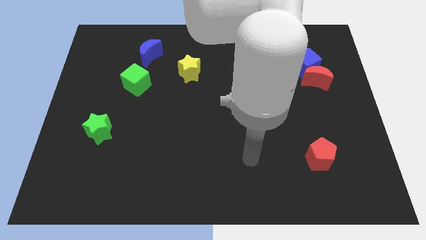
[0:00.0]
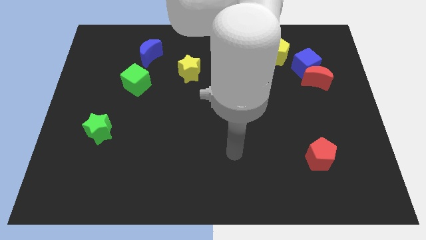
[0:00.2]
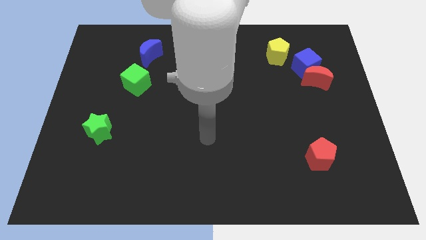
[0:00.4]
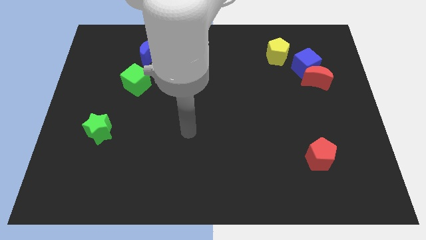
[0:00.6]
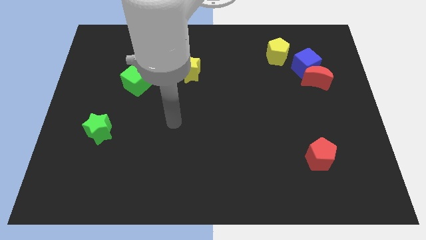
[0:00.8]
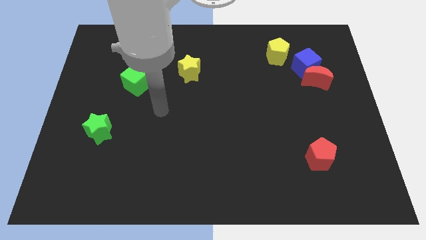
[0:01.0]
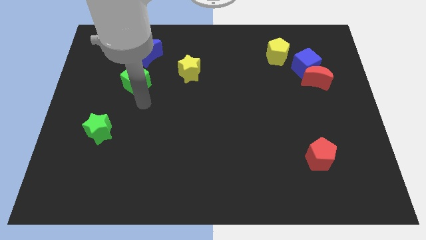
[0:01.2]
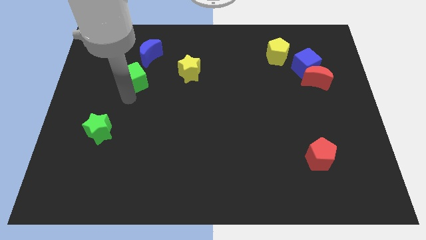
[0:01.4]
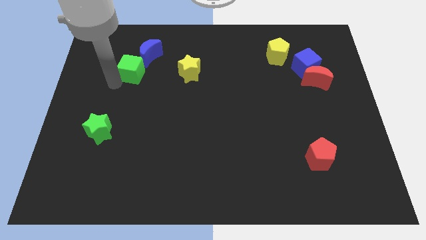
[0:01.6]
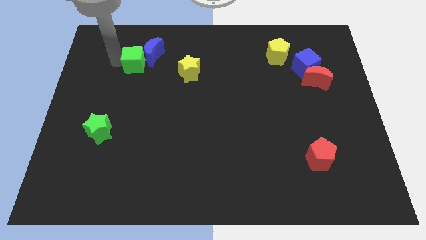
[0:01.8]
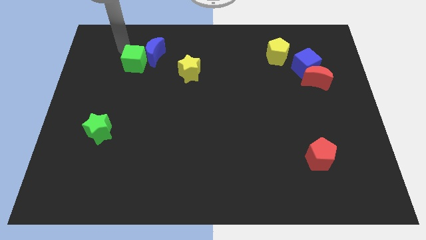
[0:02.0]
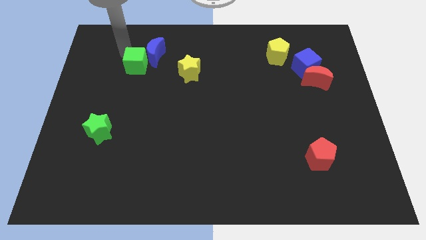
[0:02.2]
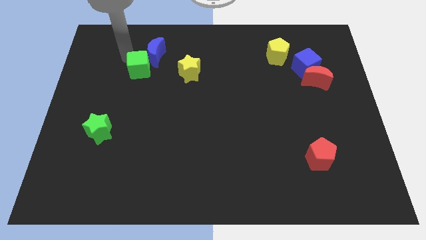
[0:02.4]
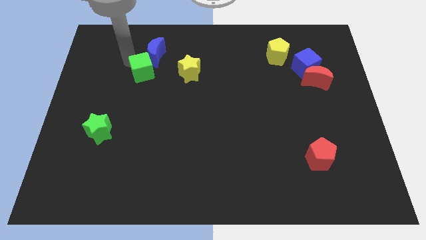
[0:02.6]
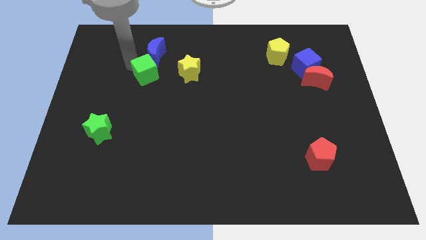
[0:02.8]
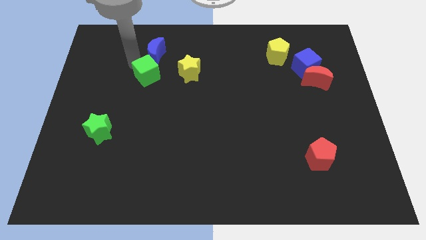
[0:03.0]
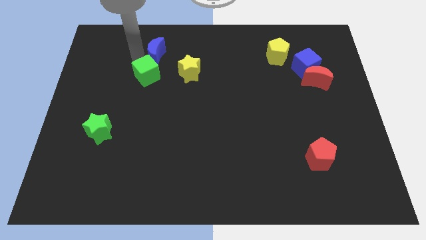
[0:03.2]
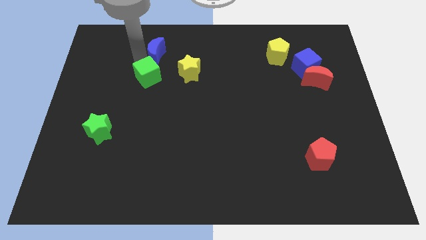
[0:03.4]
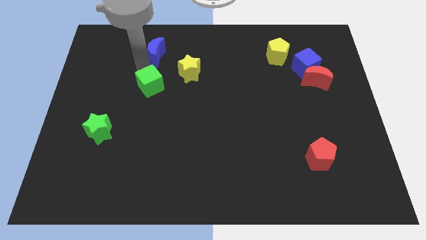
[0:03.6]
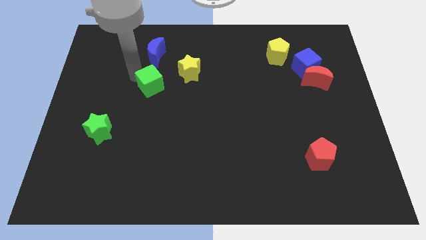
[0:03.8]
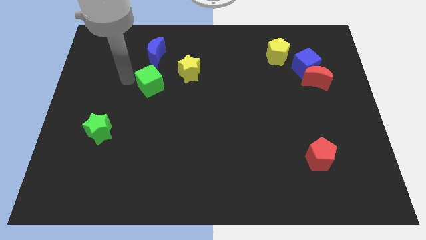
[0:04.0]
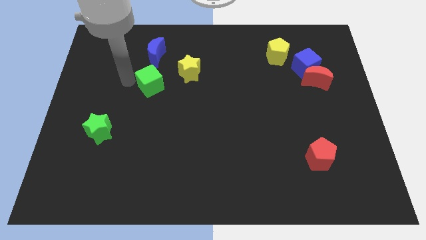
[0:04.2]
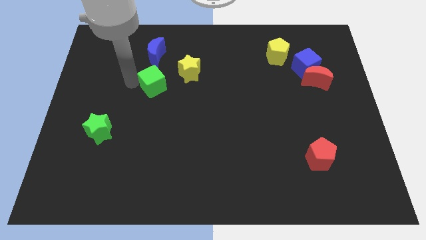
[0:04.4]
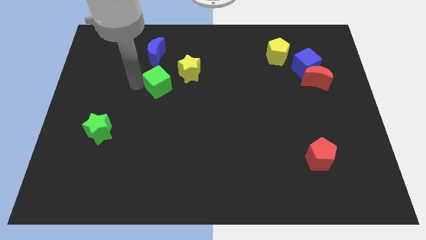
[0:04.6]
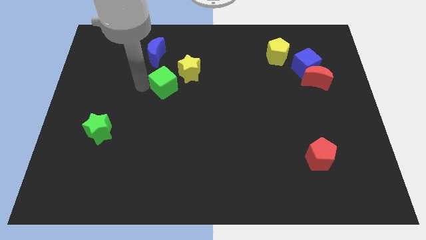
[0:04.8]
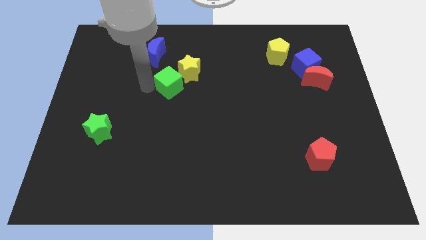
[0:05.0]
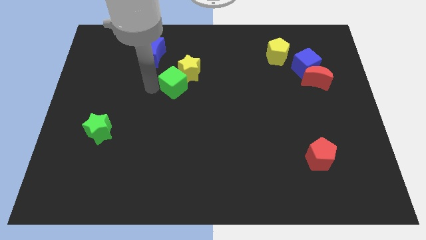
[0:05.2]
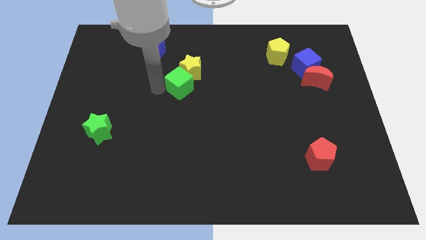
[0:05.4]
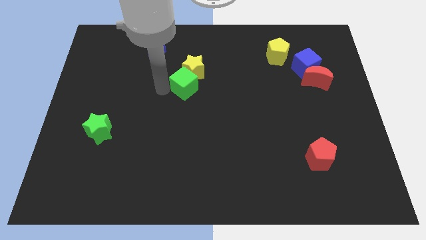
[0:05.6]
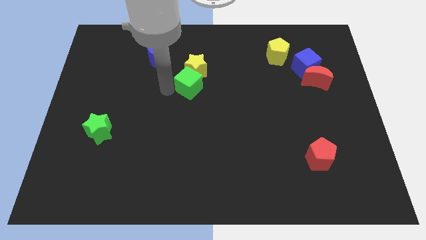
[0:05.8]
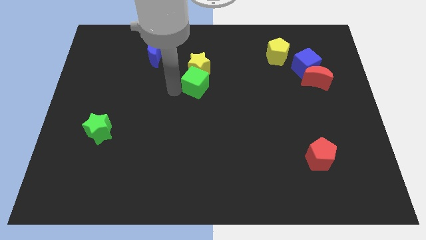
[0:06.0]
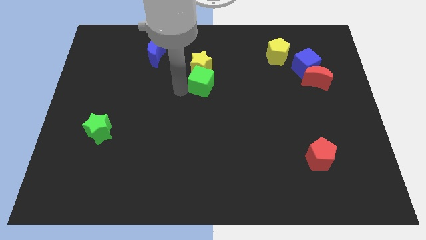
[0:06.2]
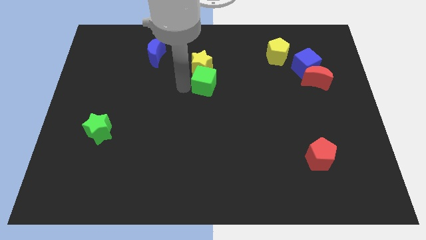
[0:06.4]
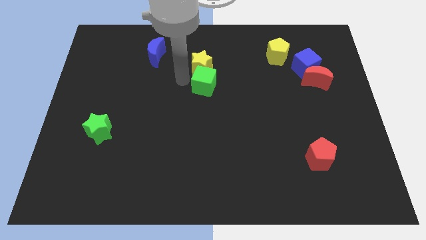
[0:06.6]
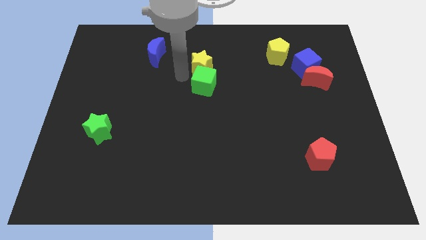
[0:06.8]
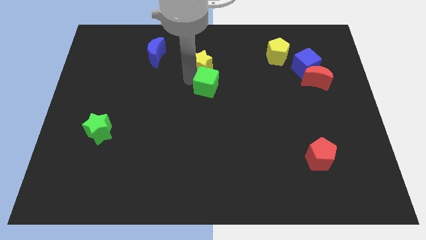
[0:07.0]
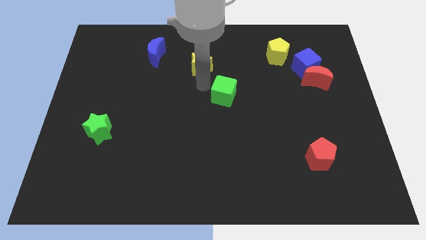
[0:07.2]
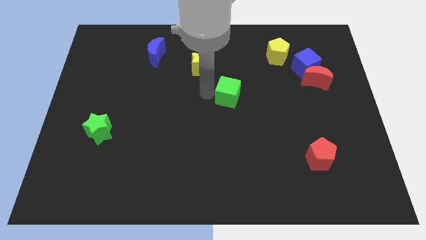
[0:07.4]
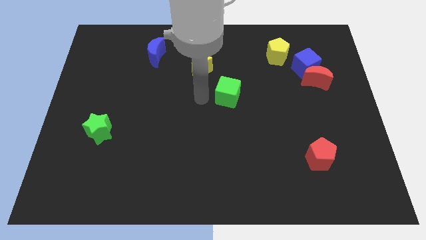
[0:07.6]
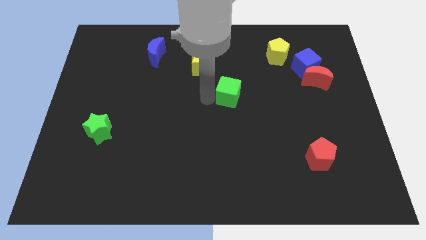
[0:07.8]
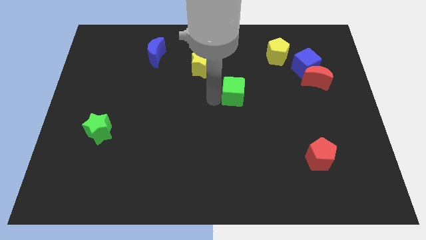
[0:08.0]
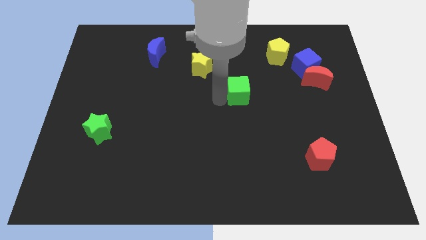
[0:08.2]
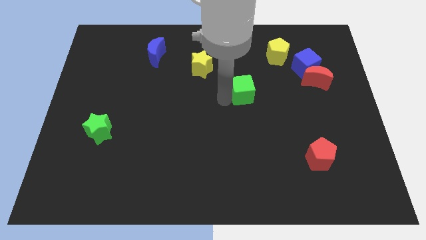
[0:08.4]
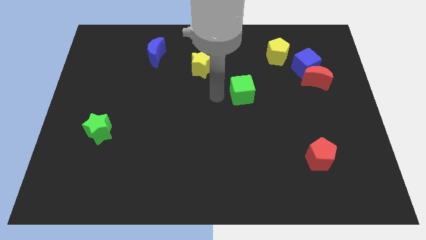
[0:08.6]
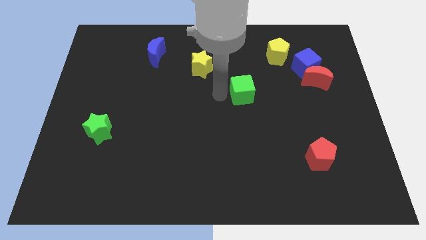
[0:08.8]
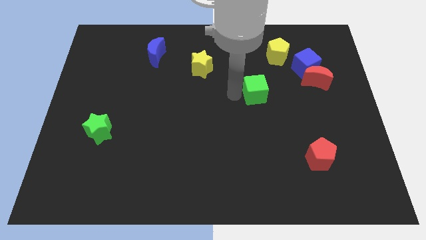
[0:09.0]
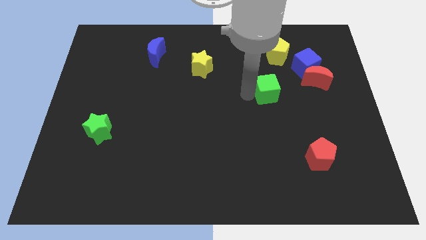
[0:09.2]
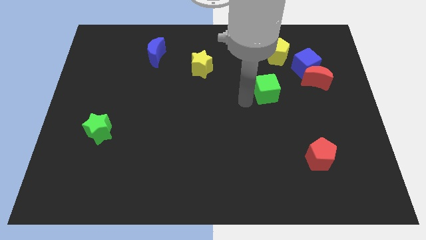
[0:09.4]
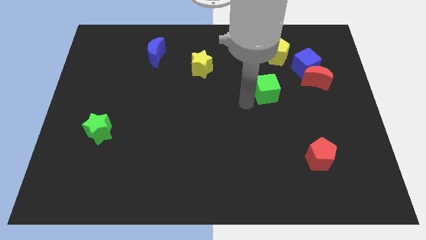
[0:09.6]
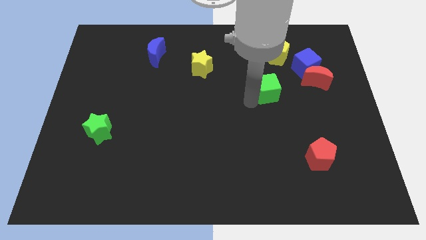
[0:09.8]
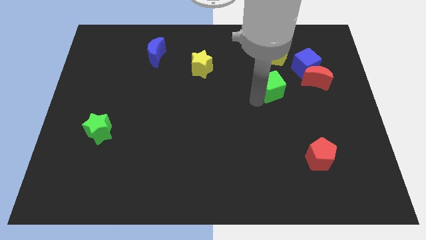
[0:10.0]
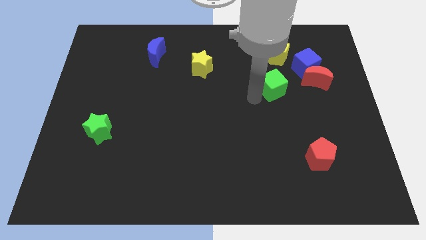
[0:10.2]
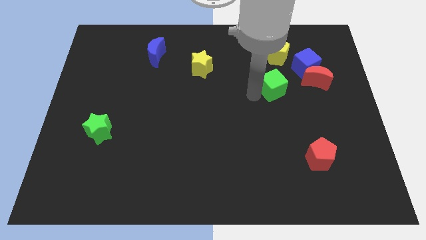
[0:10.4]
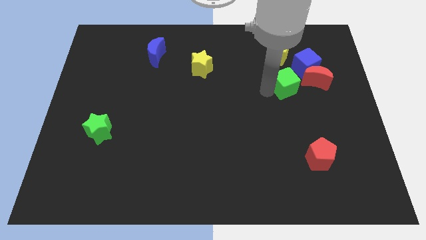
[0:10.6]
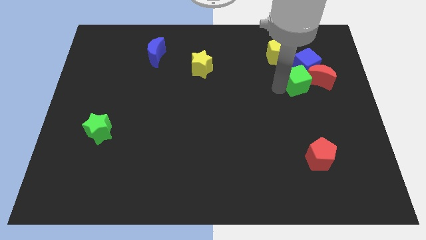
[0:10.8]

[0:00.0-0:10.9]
put the green cube to the red moon

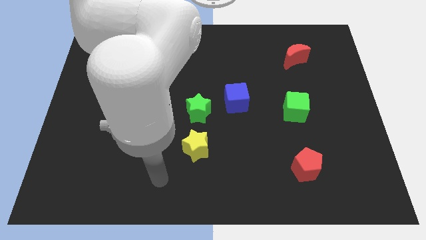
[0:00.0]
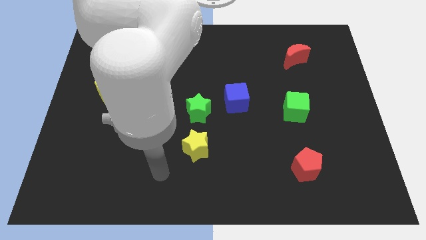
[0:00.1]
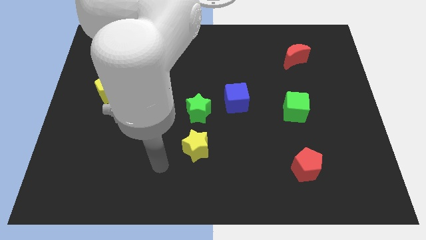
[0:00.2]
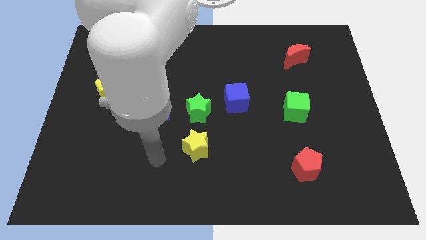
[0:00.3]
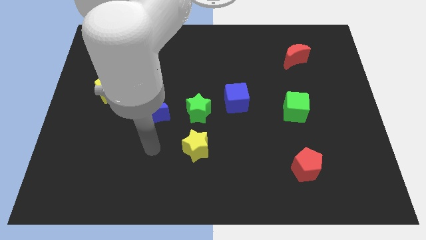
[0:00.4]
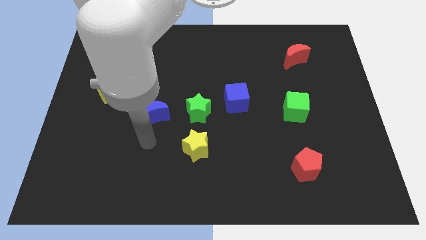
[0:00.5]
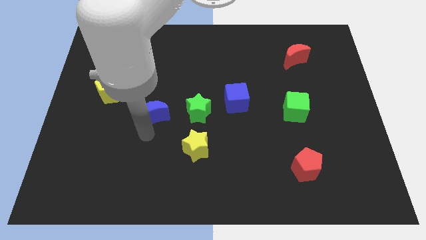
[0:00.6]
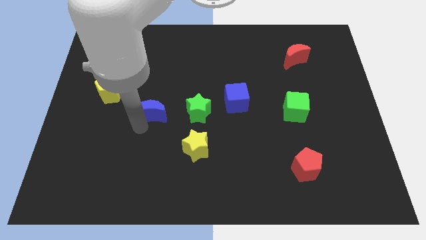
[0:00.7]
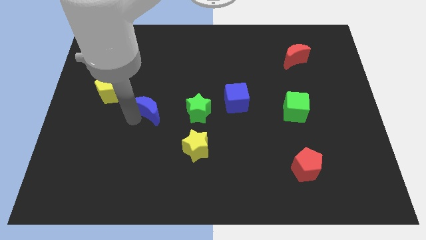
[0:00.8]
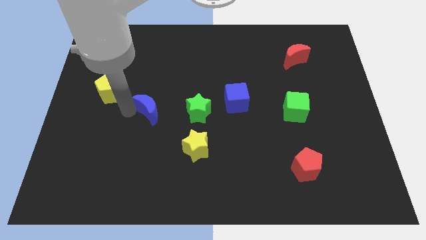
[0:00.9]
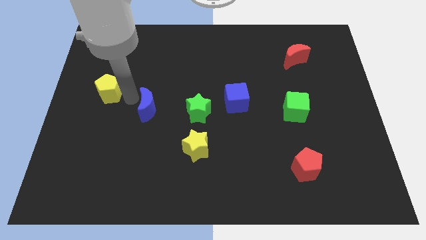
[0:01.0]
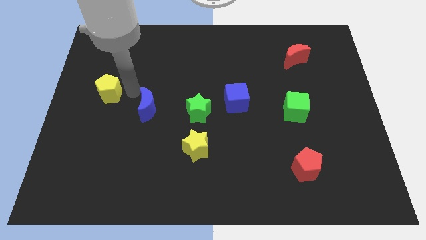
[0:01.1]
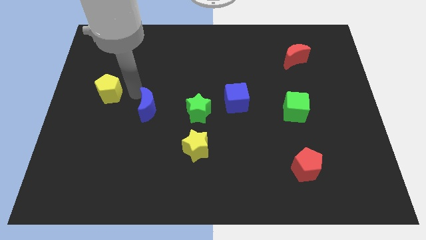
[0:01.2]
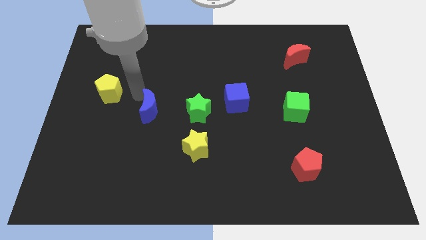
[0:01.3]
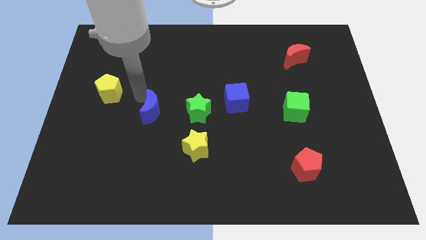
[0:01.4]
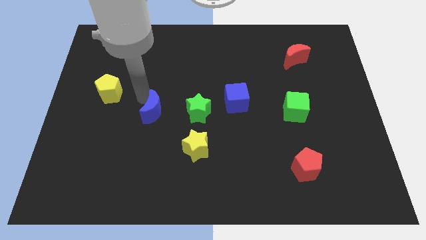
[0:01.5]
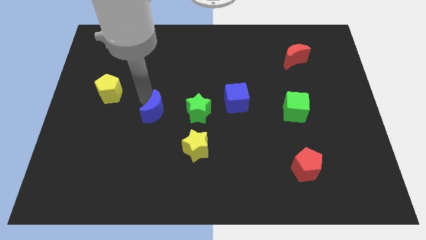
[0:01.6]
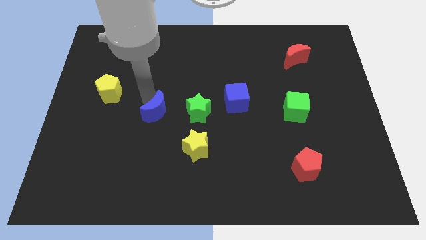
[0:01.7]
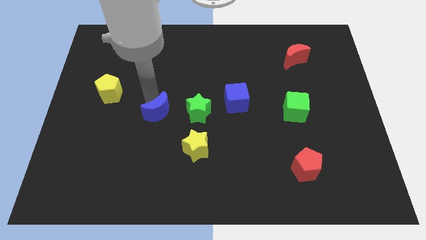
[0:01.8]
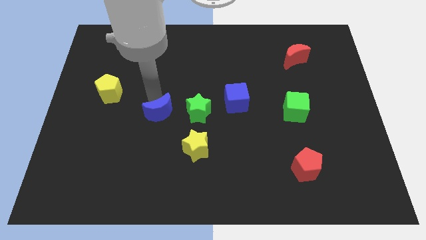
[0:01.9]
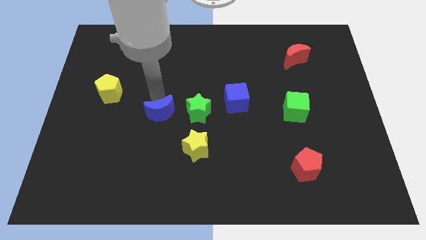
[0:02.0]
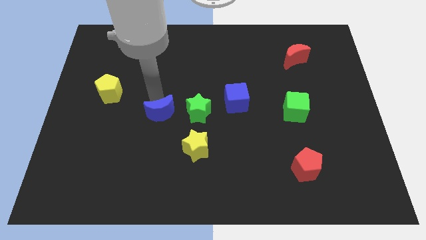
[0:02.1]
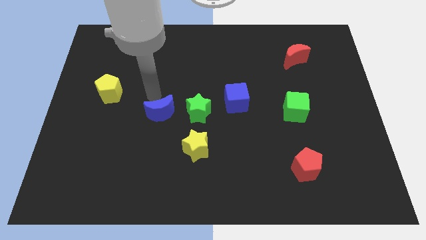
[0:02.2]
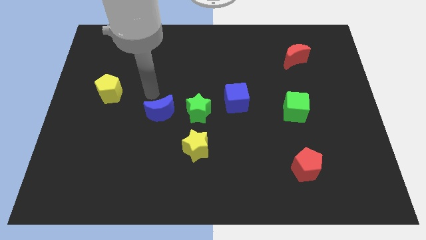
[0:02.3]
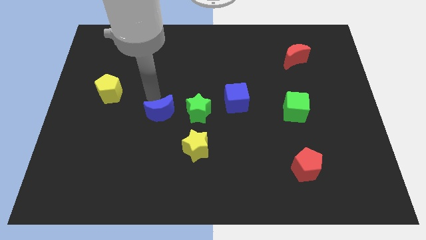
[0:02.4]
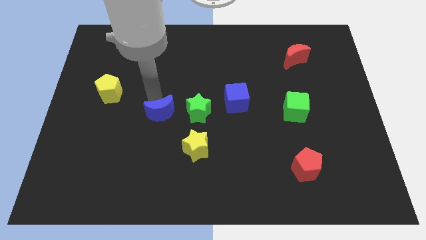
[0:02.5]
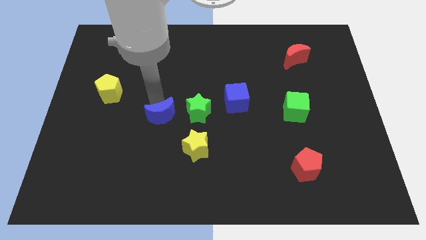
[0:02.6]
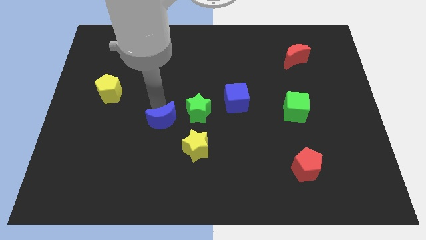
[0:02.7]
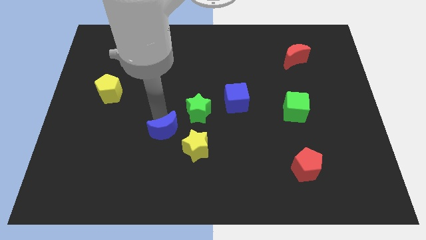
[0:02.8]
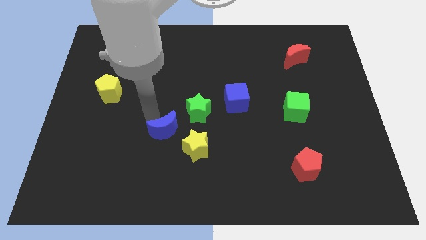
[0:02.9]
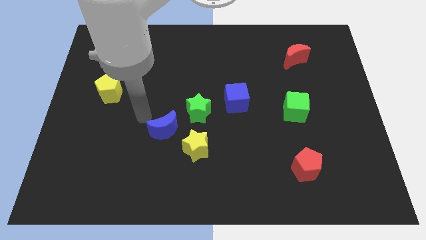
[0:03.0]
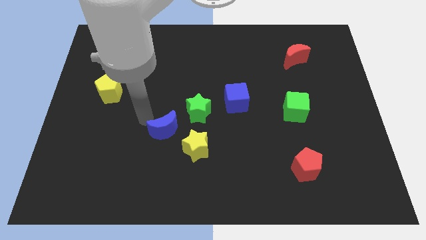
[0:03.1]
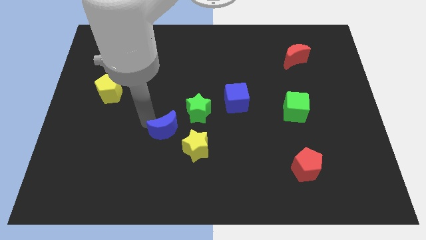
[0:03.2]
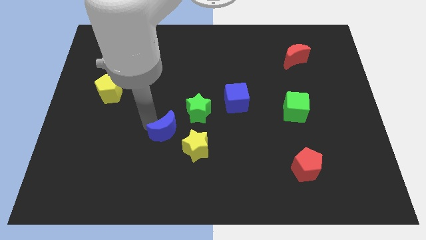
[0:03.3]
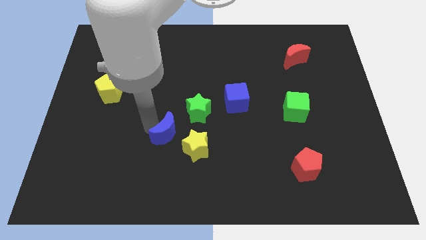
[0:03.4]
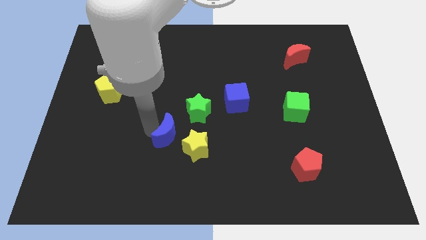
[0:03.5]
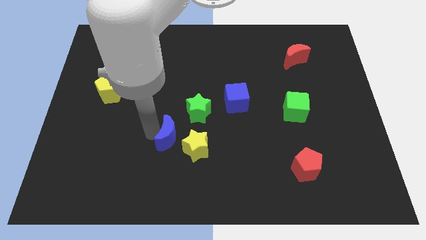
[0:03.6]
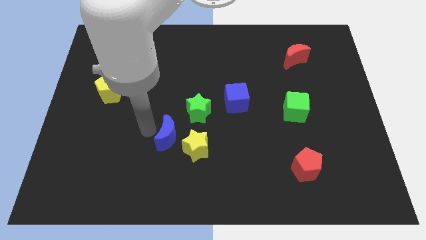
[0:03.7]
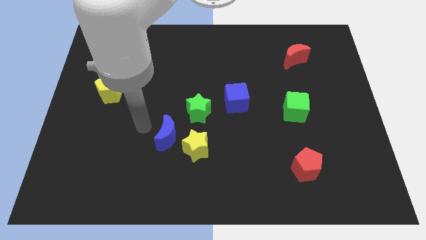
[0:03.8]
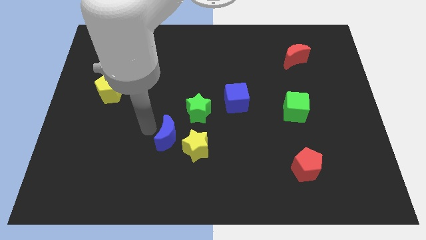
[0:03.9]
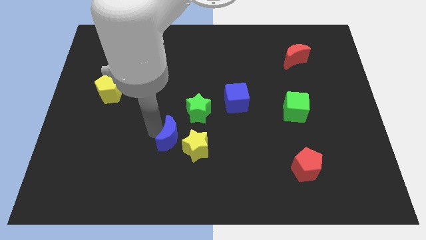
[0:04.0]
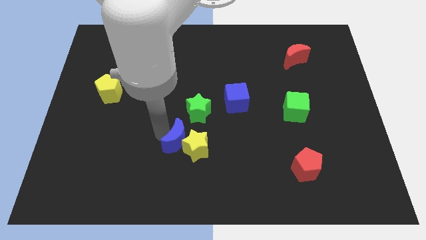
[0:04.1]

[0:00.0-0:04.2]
put the blue moon to the yellow star
